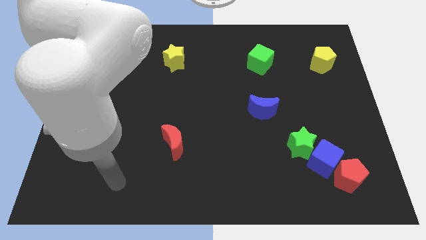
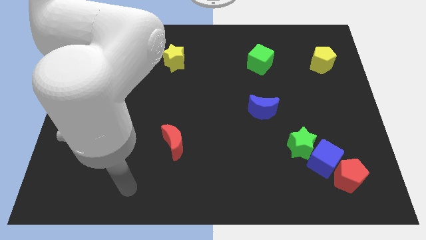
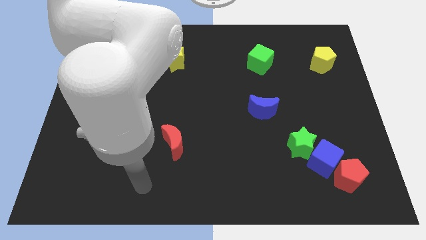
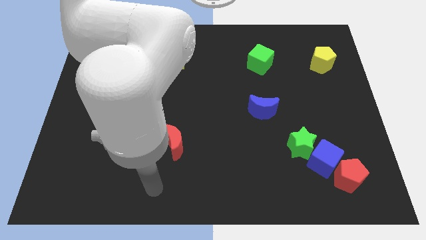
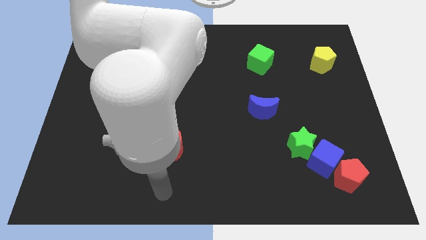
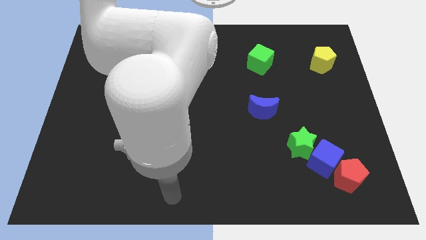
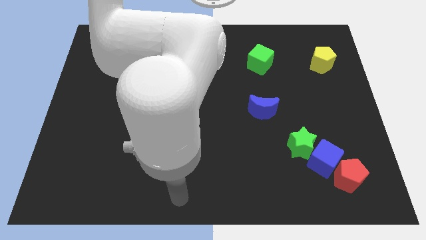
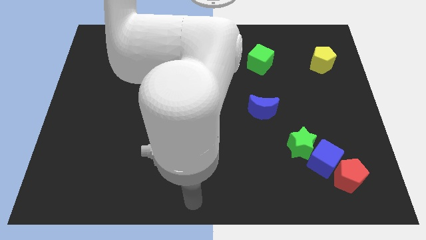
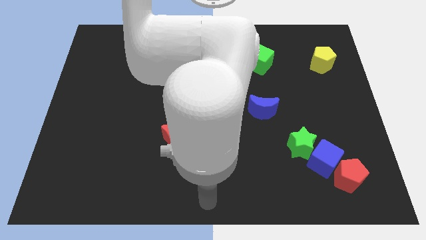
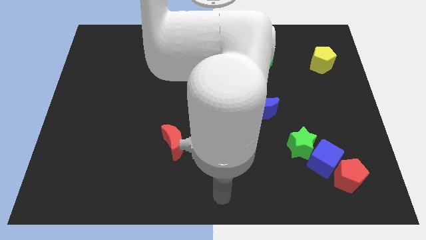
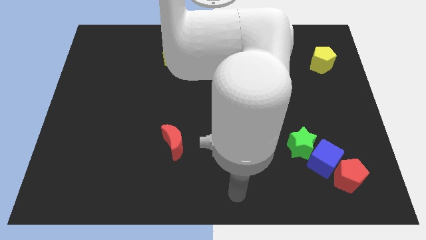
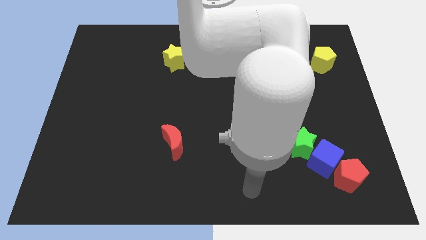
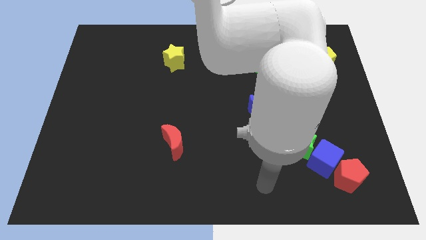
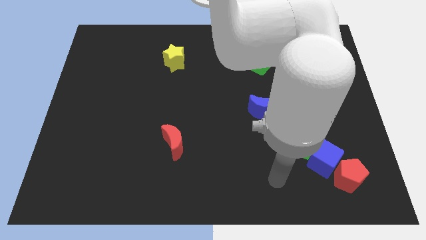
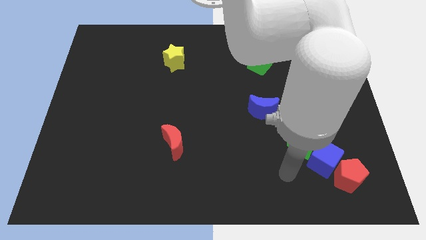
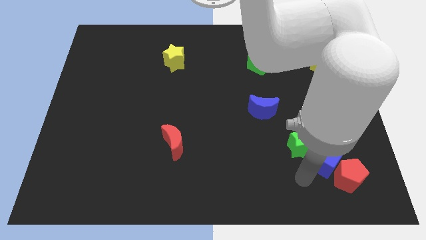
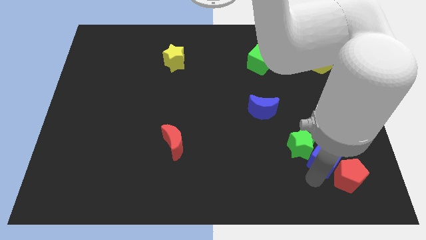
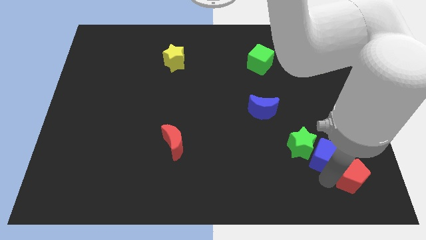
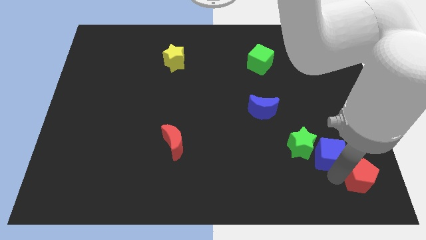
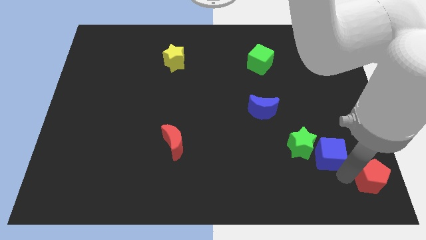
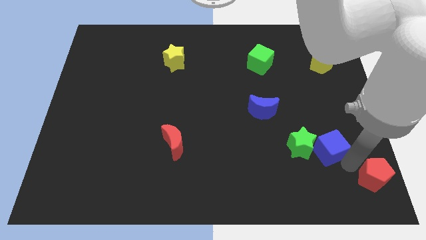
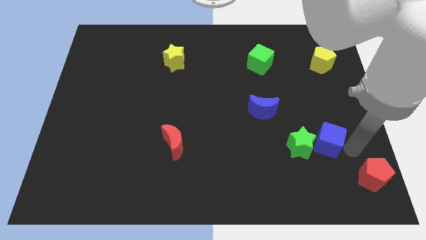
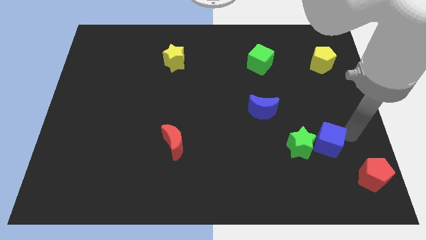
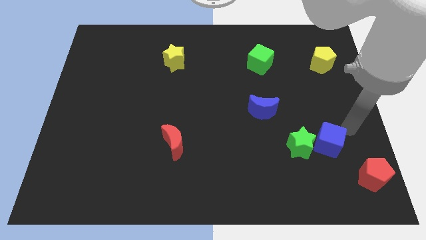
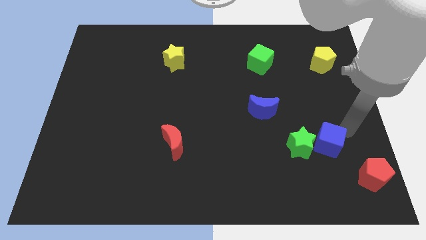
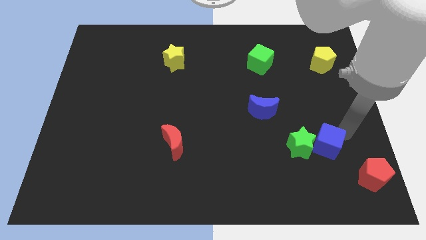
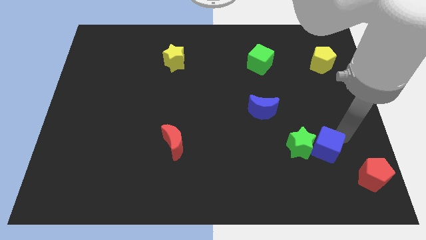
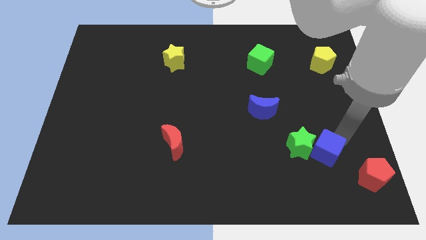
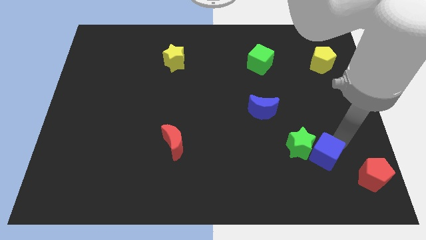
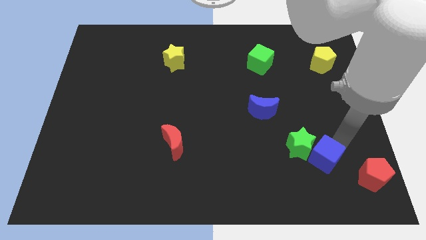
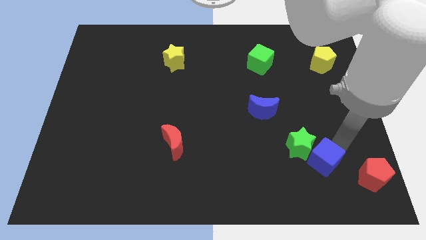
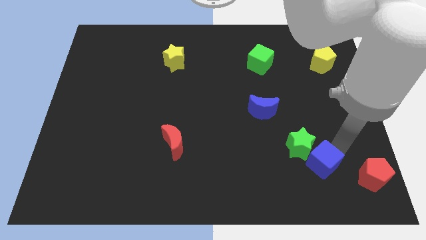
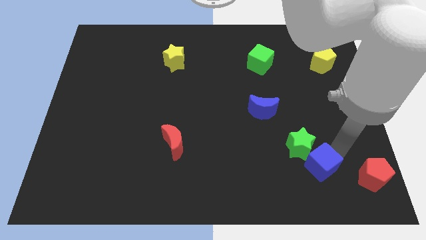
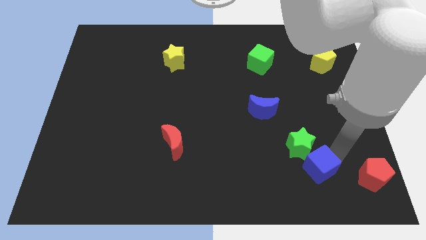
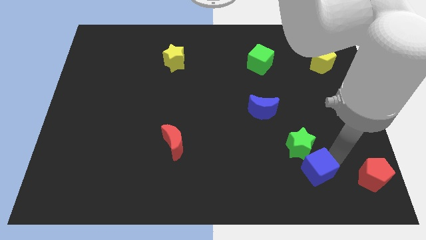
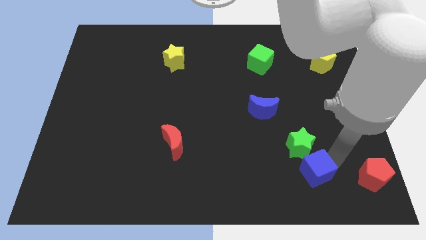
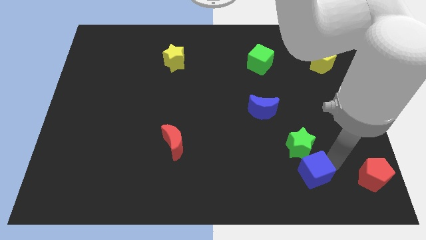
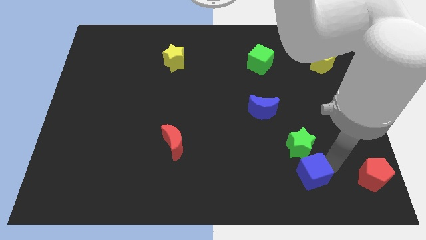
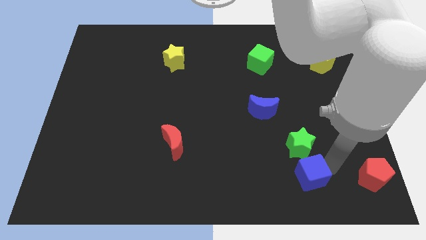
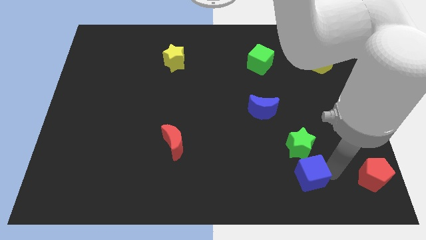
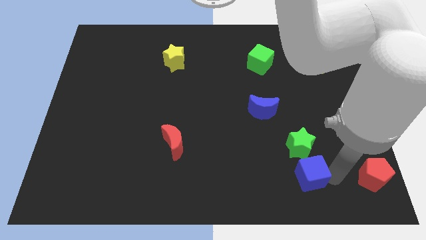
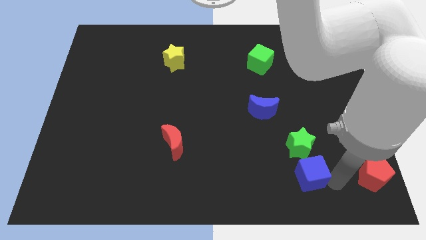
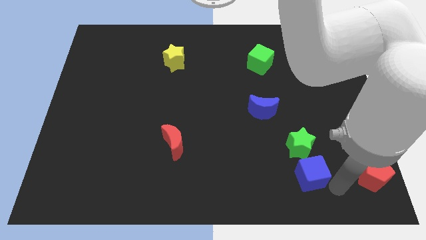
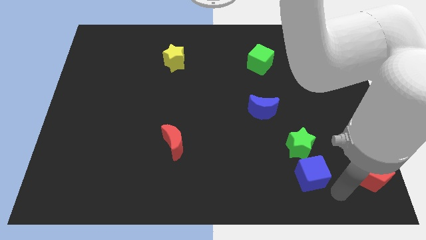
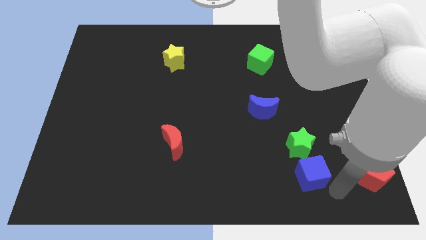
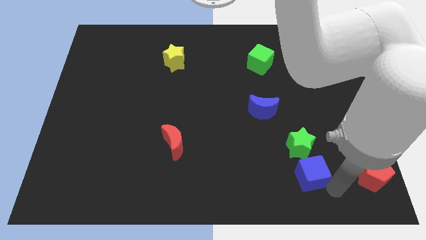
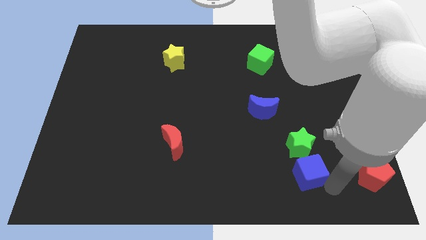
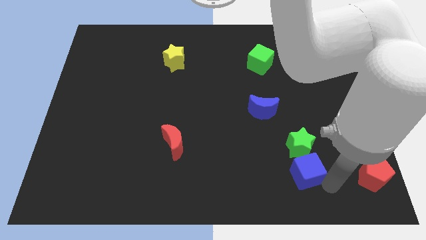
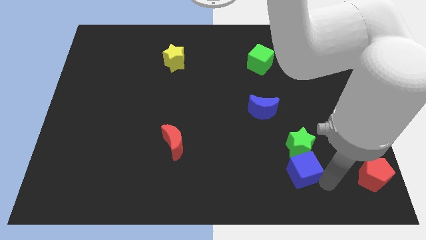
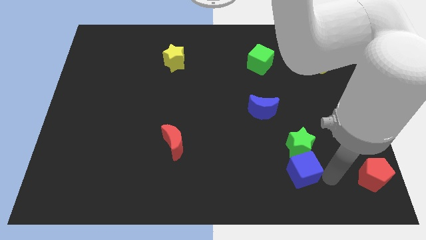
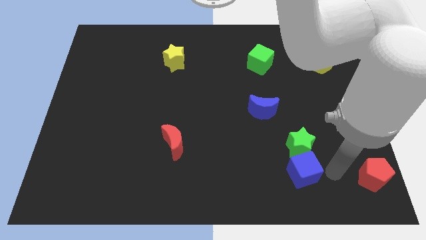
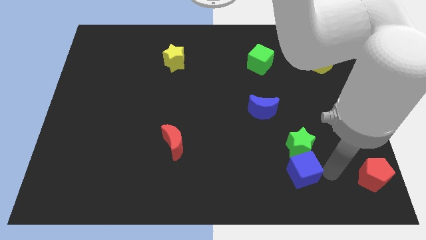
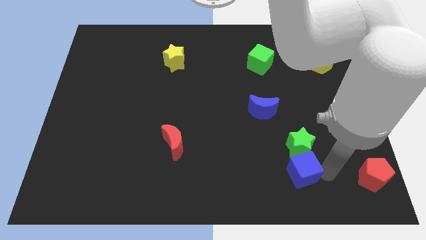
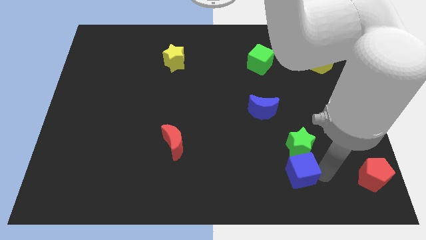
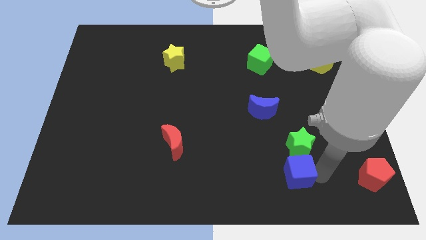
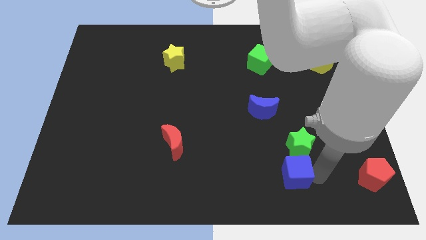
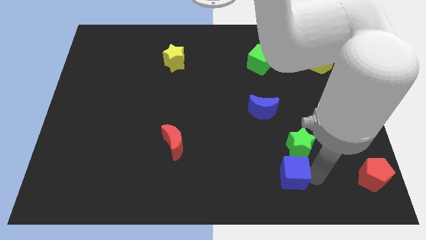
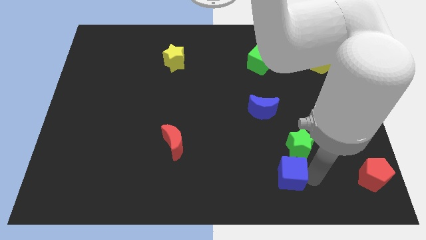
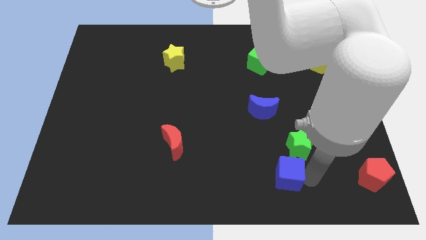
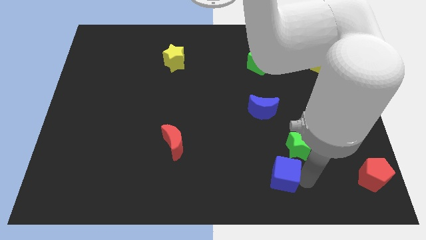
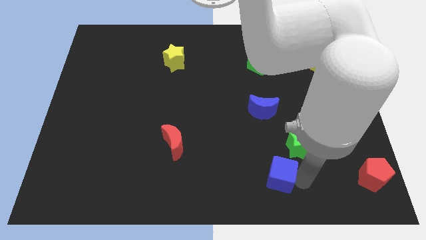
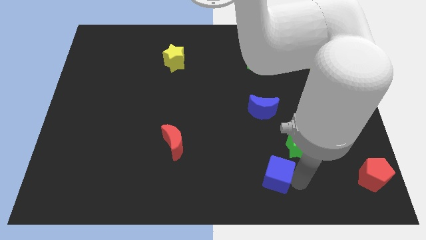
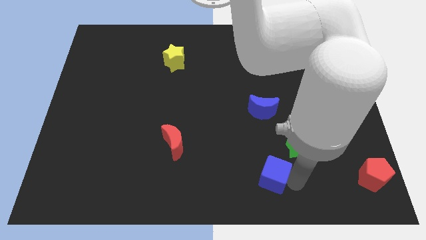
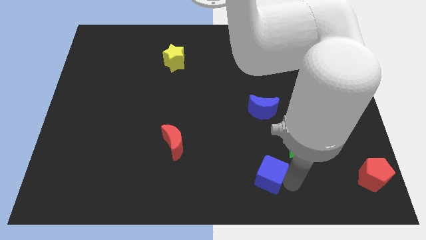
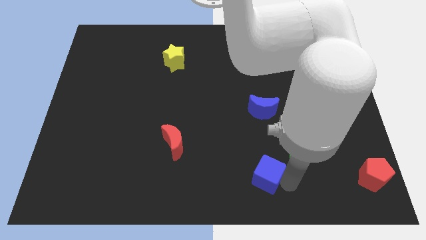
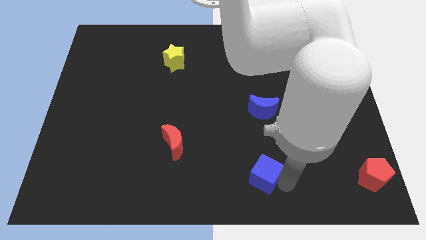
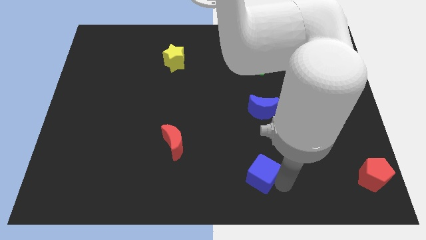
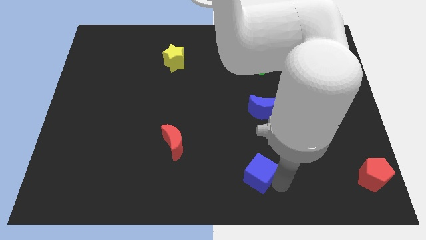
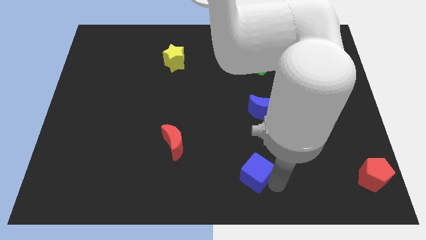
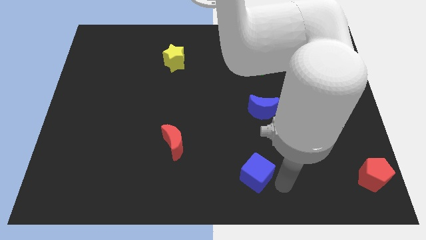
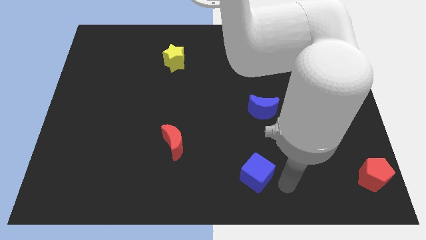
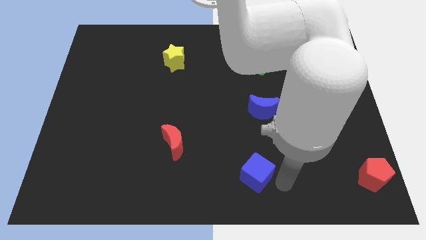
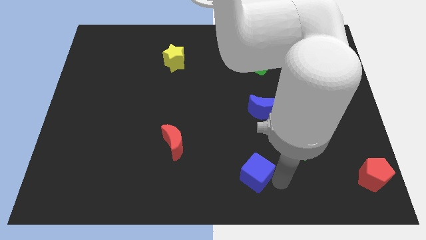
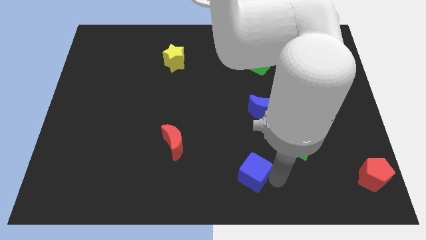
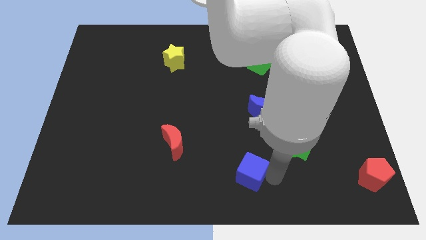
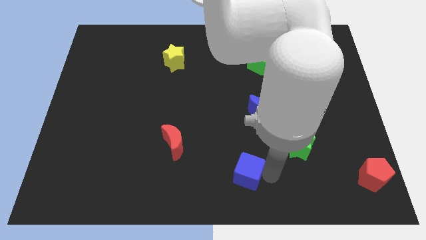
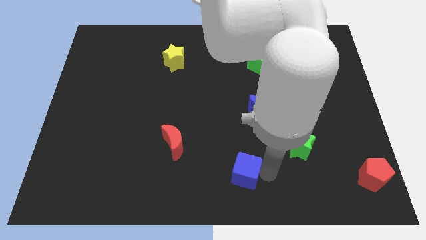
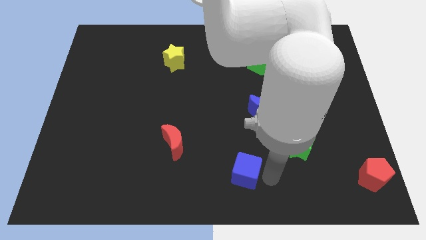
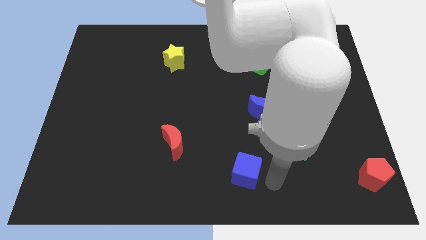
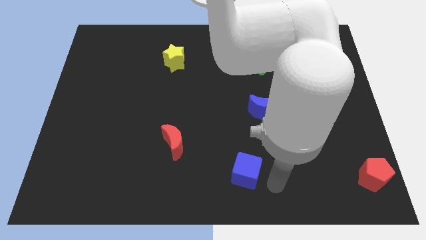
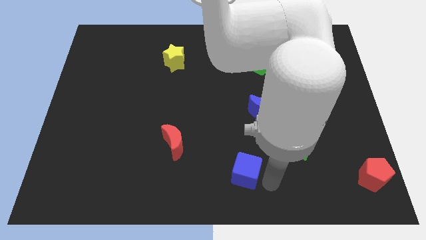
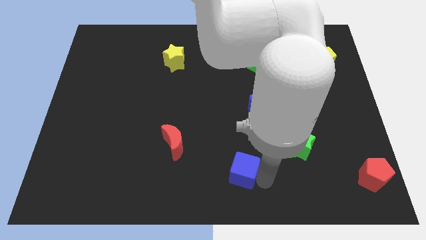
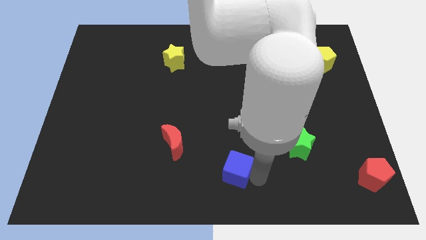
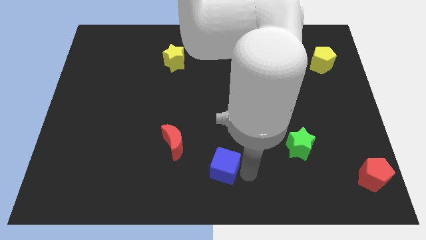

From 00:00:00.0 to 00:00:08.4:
move the blue cube left

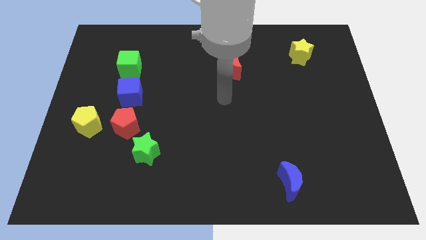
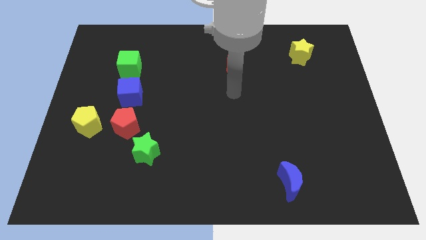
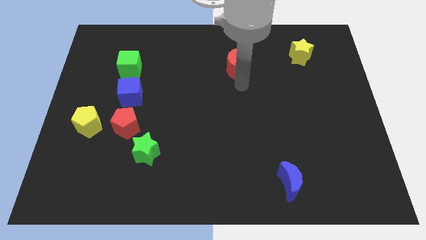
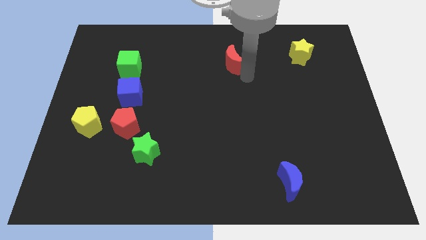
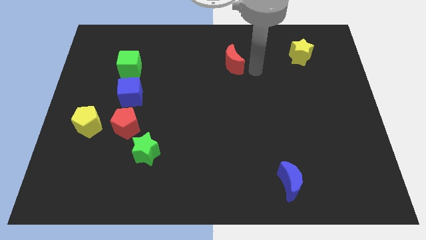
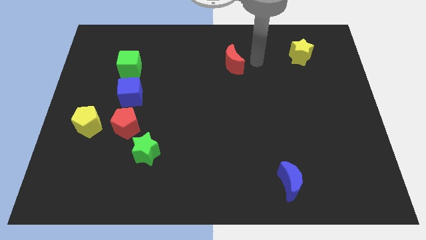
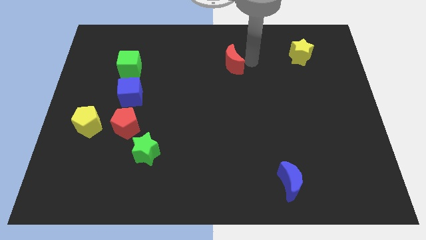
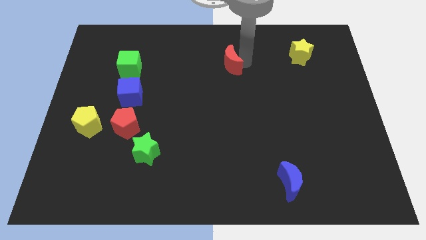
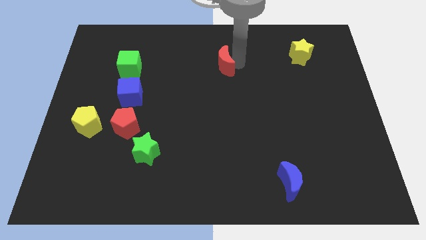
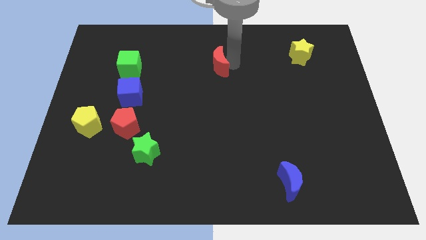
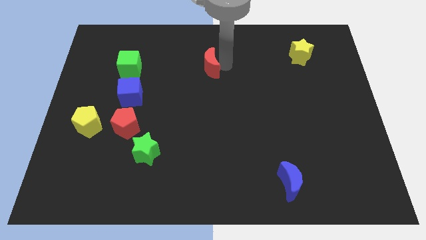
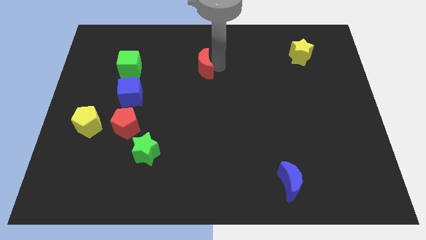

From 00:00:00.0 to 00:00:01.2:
move the red moon left a bit
